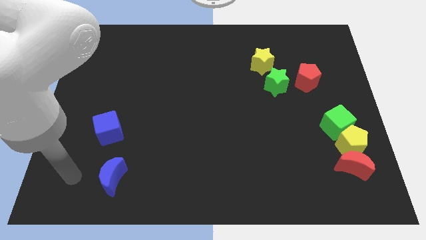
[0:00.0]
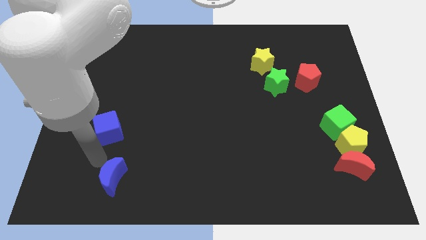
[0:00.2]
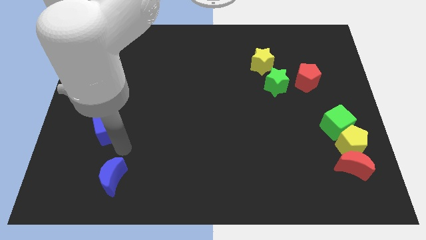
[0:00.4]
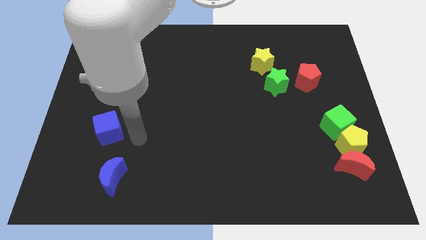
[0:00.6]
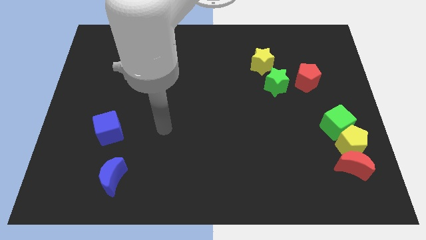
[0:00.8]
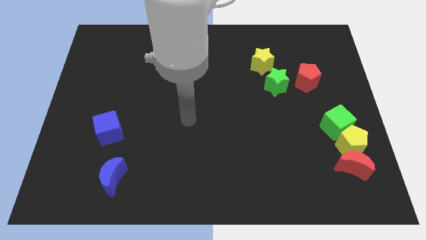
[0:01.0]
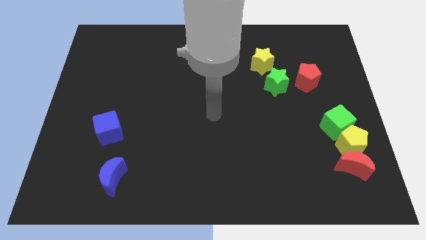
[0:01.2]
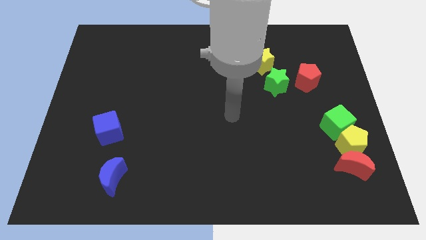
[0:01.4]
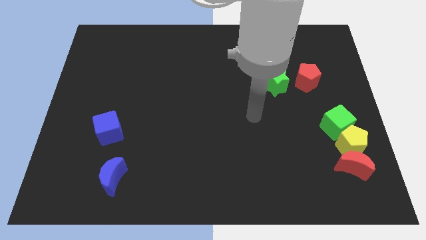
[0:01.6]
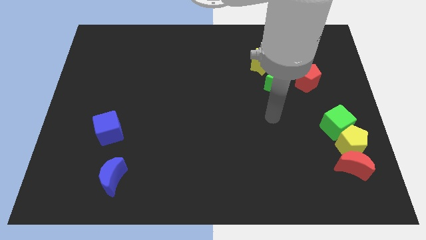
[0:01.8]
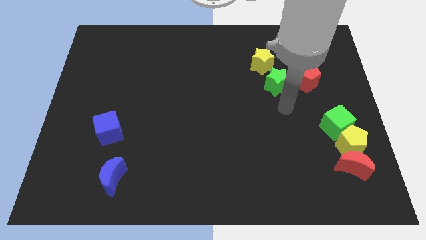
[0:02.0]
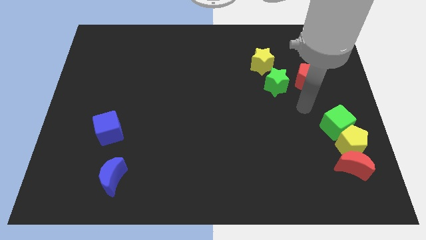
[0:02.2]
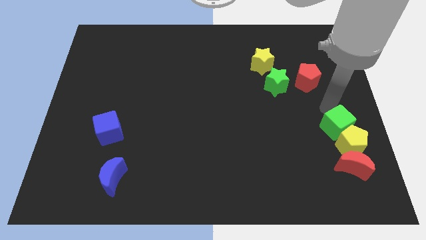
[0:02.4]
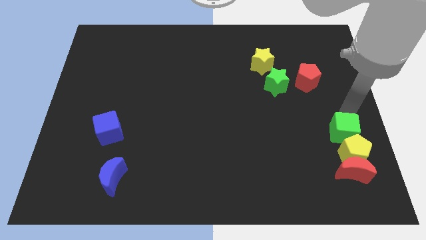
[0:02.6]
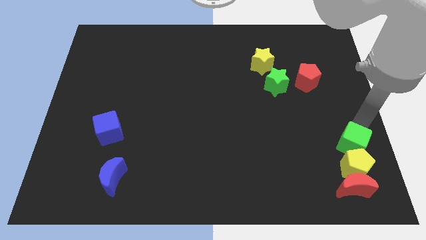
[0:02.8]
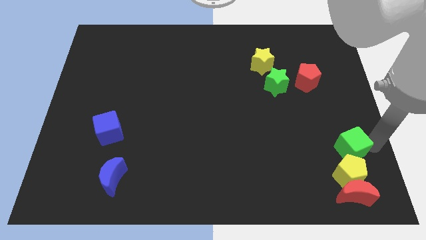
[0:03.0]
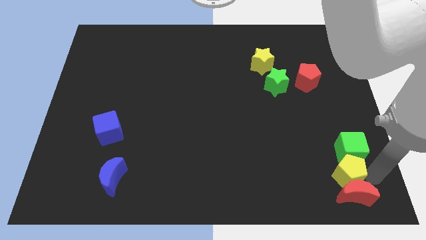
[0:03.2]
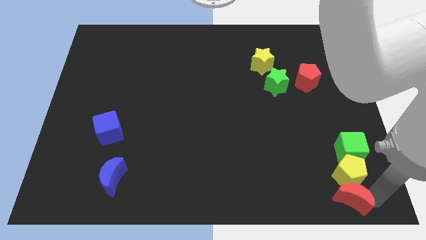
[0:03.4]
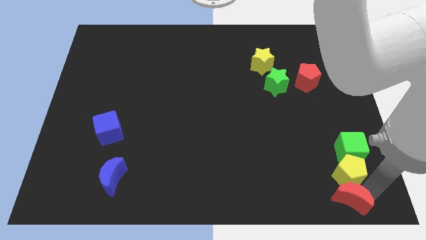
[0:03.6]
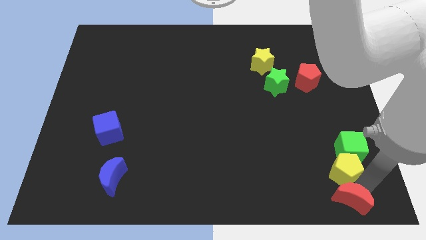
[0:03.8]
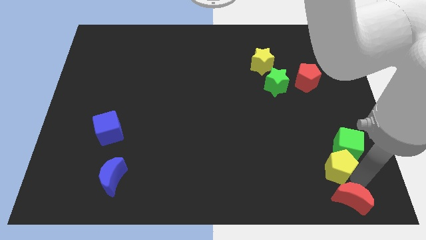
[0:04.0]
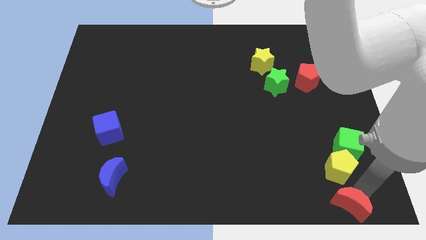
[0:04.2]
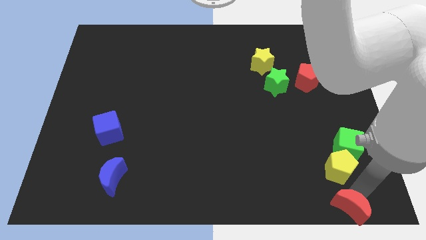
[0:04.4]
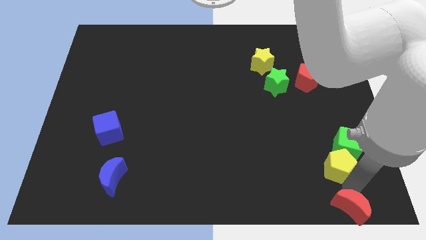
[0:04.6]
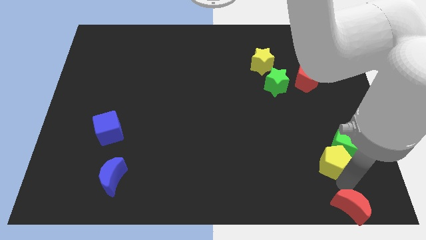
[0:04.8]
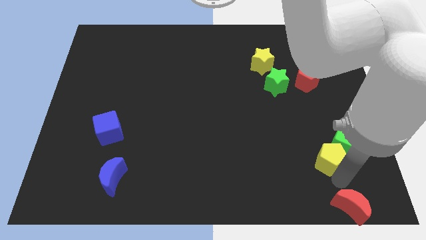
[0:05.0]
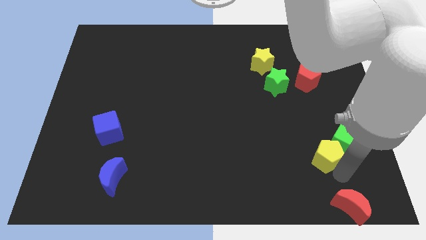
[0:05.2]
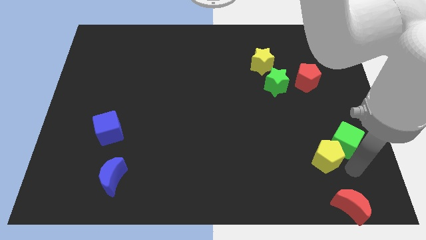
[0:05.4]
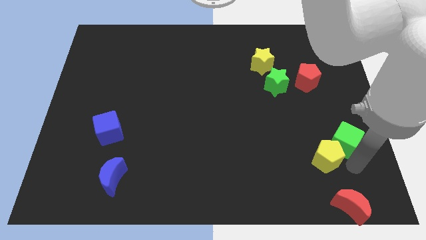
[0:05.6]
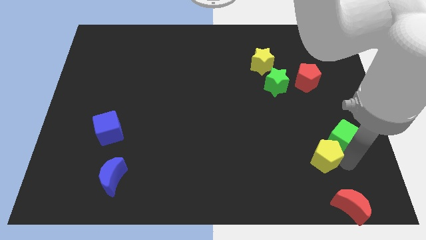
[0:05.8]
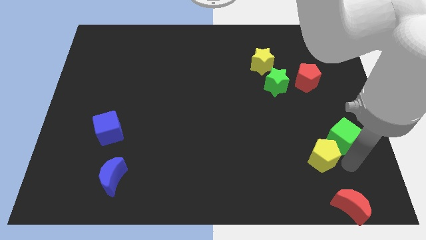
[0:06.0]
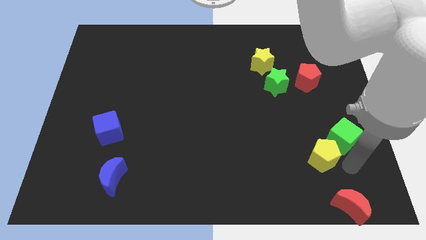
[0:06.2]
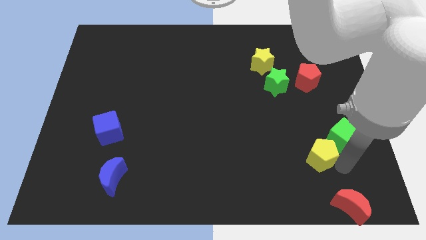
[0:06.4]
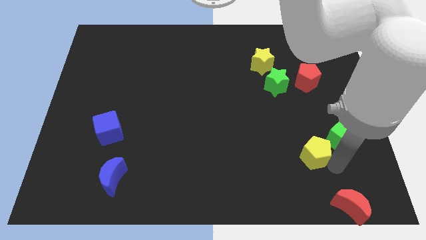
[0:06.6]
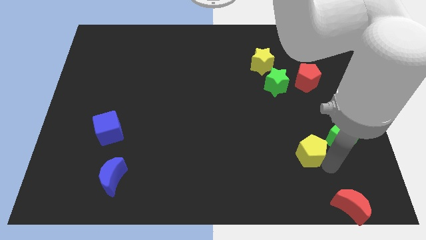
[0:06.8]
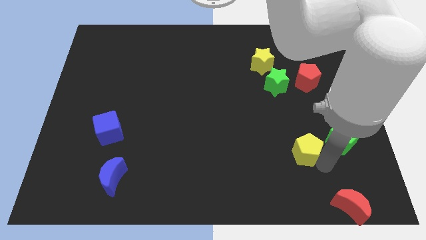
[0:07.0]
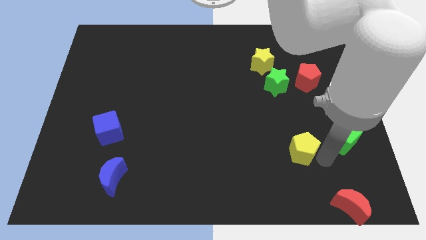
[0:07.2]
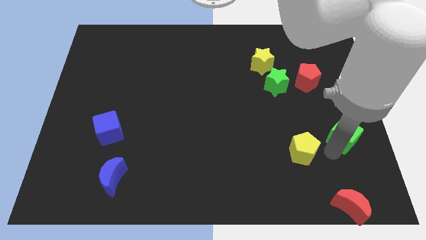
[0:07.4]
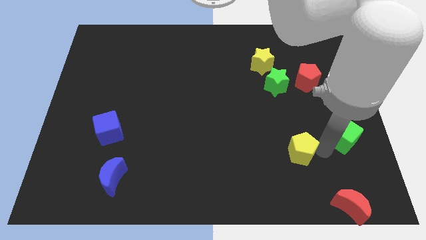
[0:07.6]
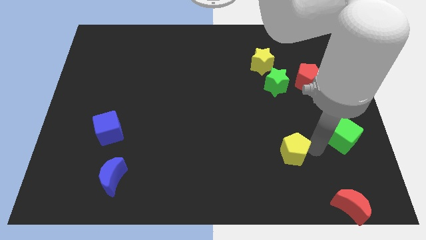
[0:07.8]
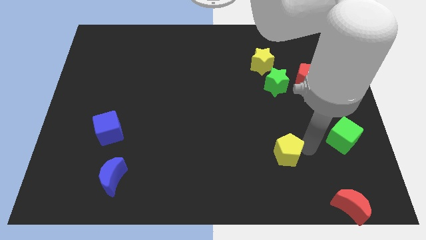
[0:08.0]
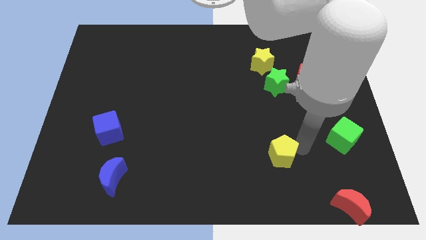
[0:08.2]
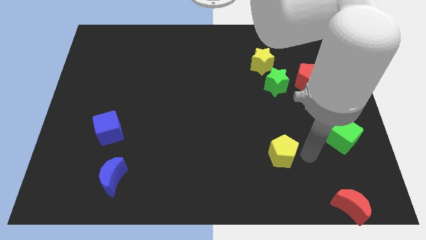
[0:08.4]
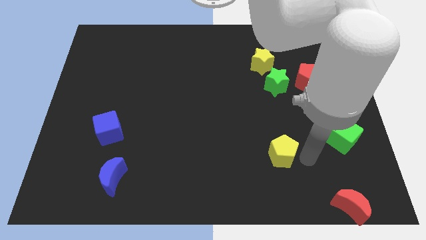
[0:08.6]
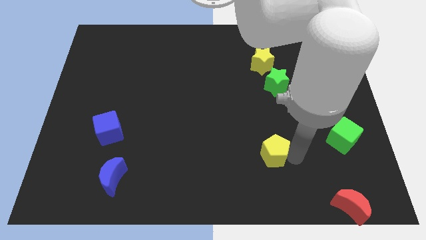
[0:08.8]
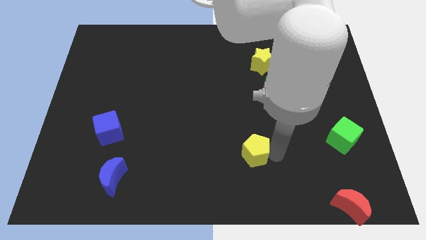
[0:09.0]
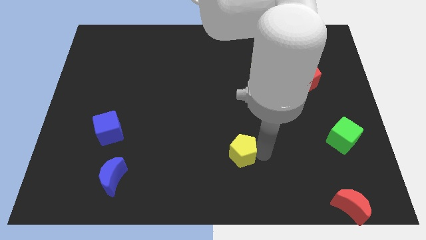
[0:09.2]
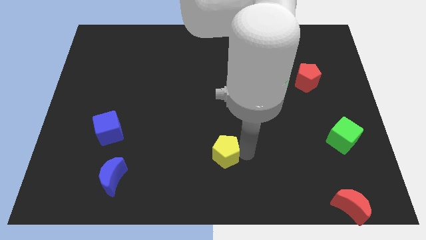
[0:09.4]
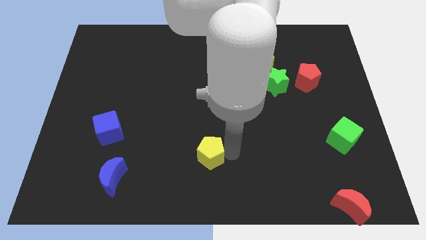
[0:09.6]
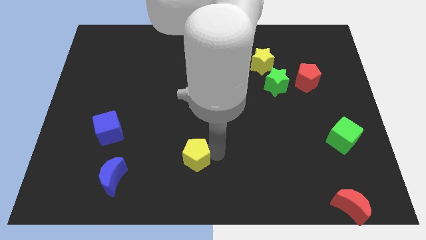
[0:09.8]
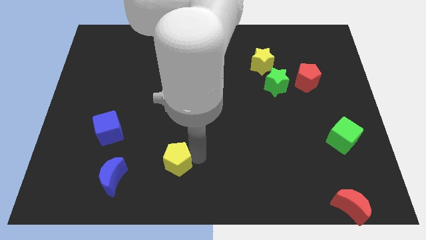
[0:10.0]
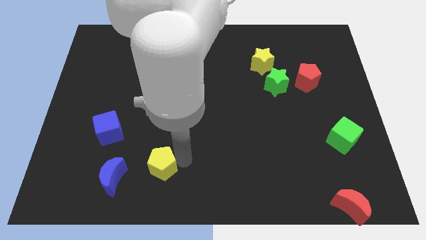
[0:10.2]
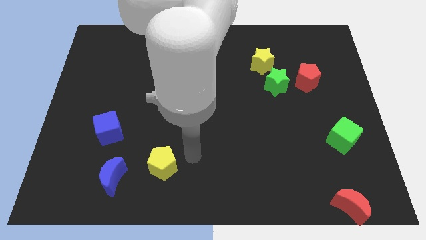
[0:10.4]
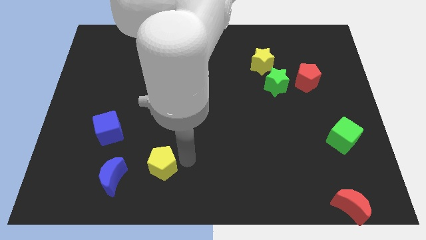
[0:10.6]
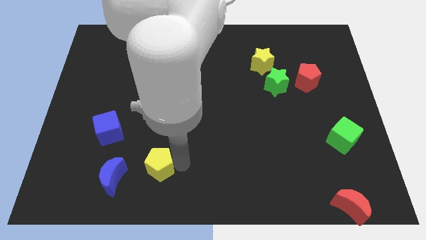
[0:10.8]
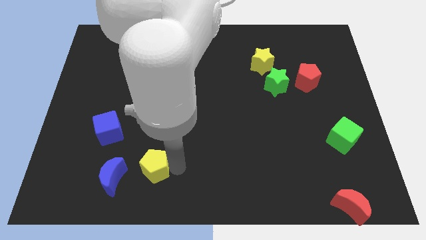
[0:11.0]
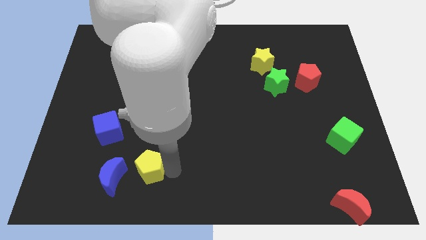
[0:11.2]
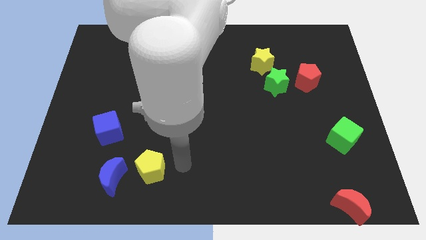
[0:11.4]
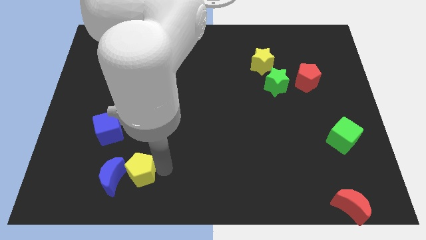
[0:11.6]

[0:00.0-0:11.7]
move the yellow pentagon close to the blue moon

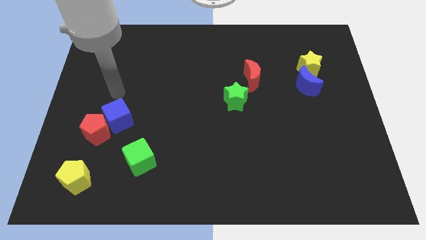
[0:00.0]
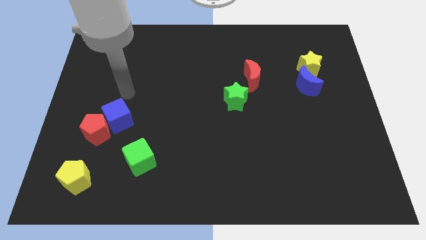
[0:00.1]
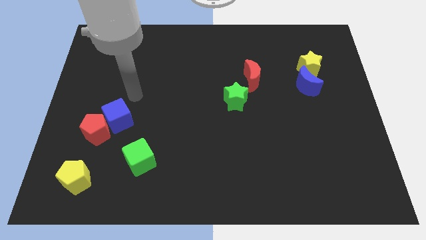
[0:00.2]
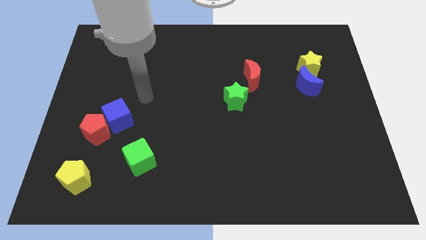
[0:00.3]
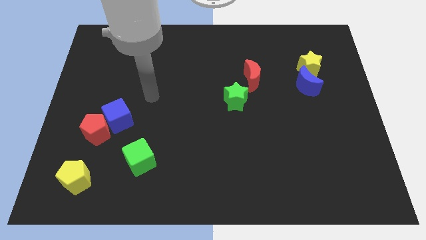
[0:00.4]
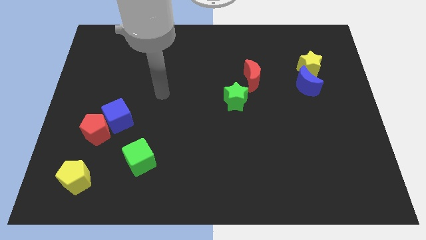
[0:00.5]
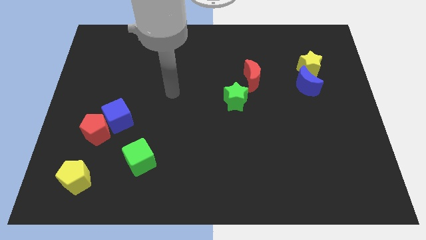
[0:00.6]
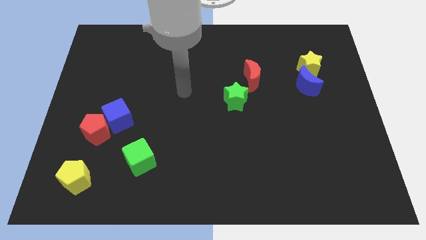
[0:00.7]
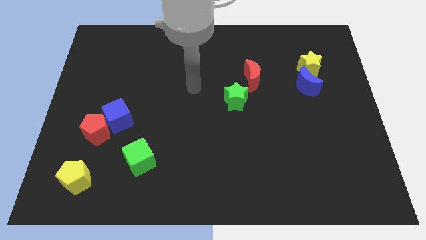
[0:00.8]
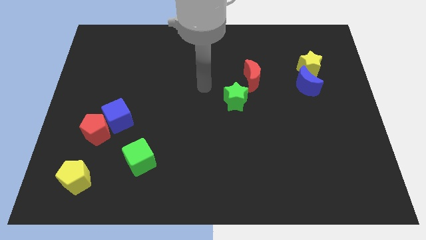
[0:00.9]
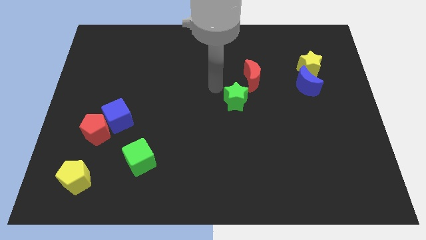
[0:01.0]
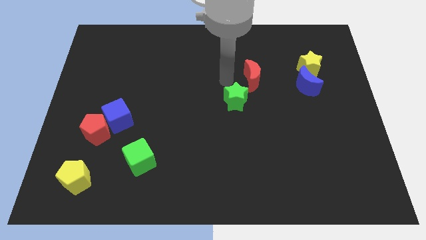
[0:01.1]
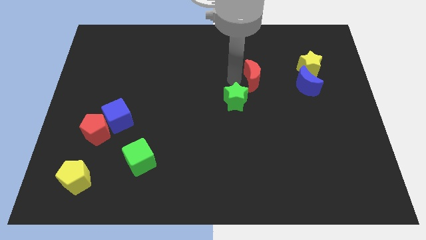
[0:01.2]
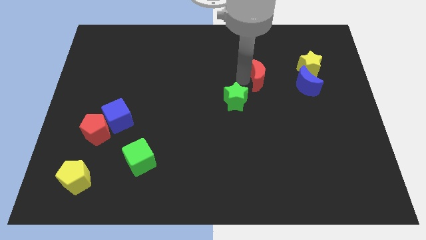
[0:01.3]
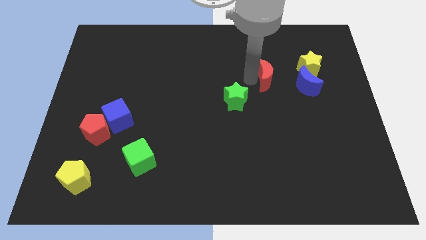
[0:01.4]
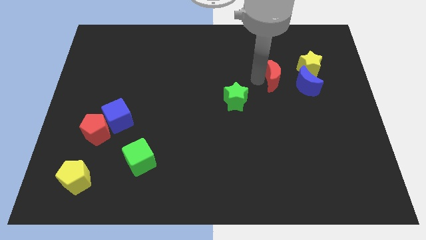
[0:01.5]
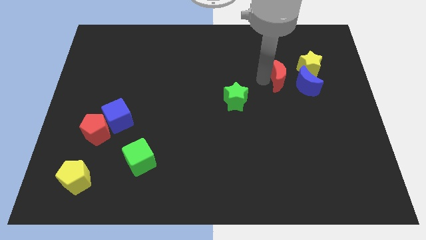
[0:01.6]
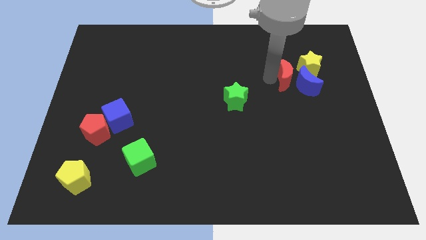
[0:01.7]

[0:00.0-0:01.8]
move the red moon close to the blue moon

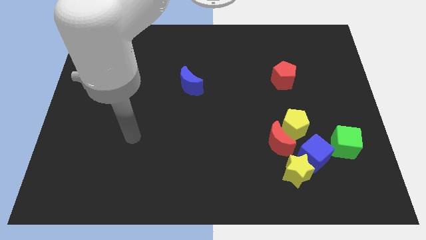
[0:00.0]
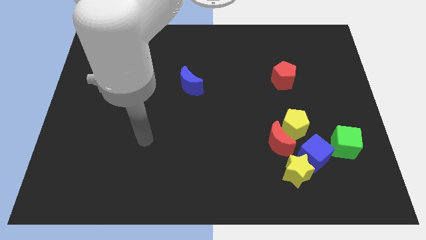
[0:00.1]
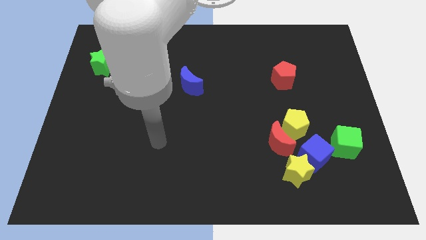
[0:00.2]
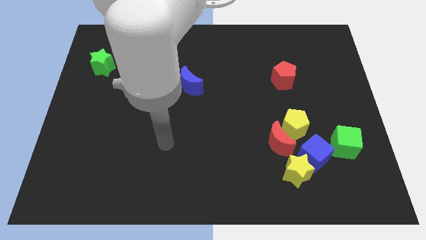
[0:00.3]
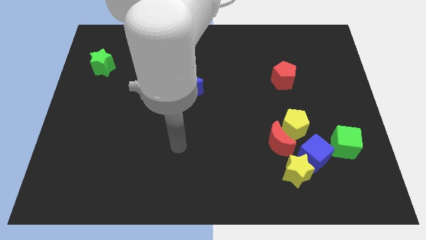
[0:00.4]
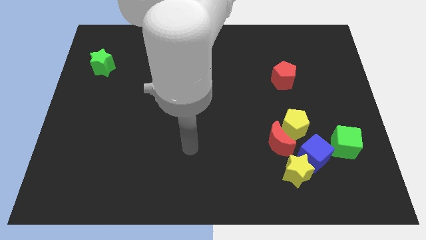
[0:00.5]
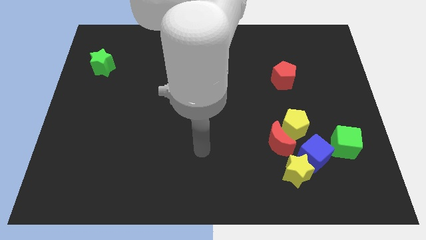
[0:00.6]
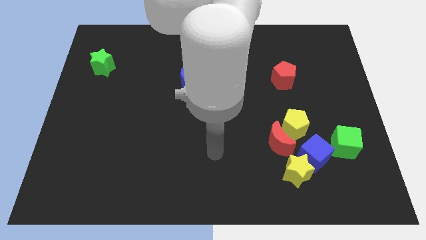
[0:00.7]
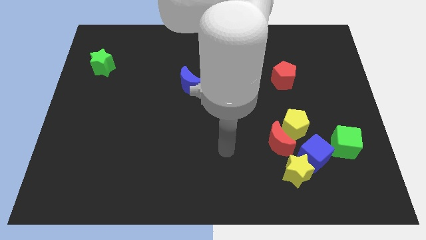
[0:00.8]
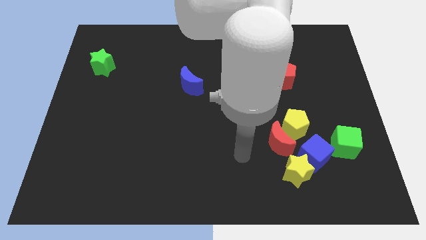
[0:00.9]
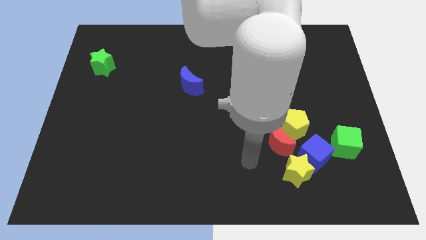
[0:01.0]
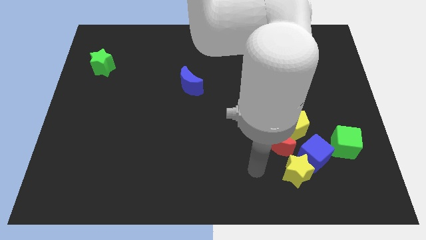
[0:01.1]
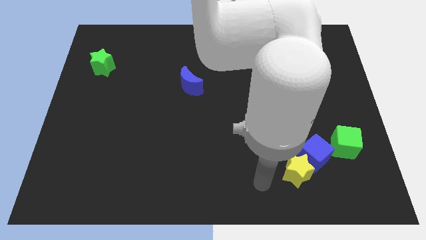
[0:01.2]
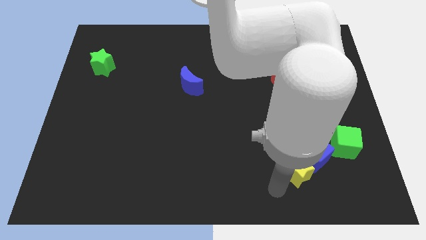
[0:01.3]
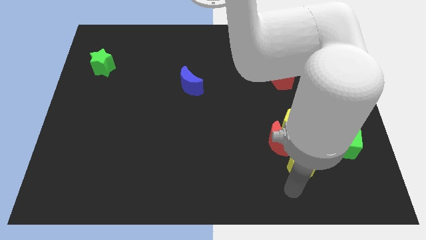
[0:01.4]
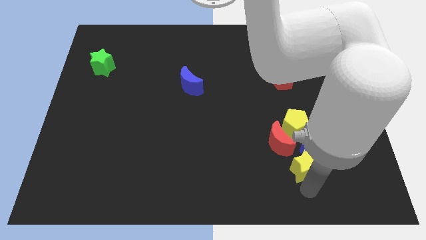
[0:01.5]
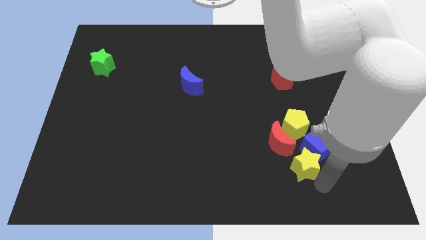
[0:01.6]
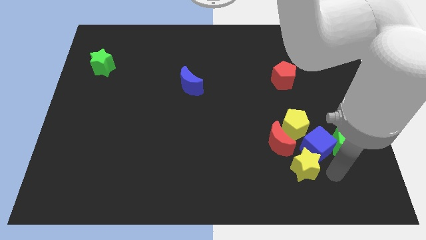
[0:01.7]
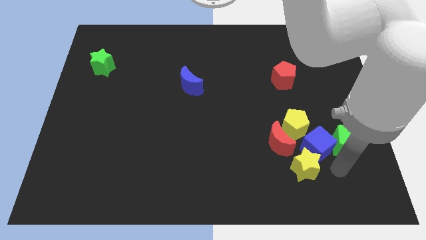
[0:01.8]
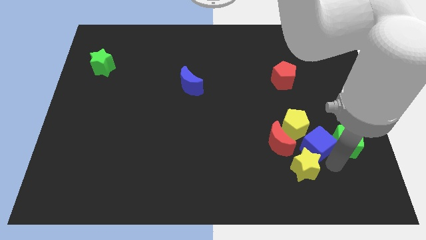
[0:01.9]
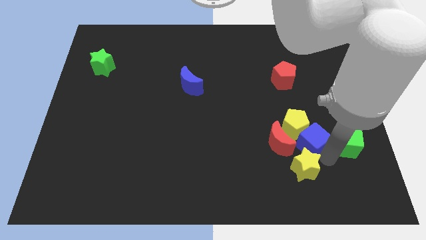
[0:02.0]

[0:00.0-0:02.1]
slide the blue cube close to the yellow pentagon
